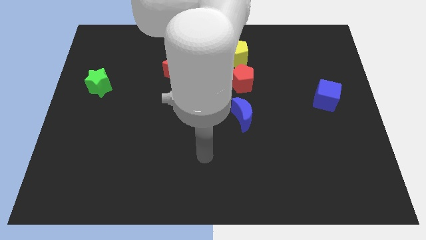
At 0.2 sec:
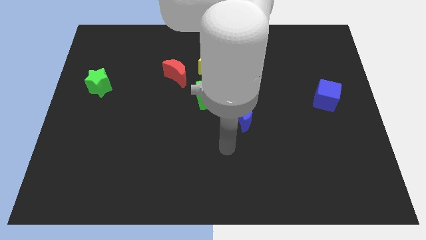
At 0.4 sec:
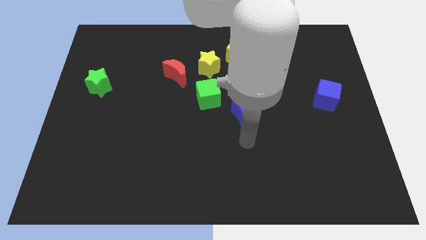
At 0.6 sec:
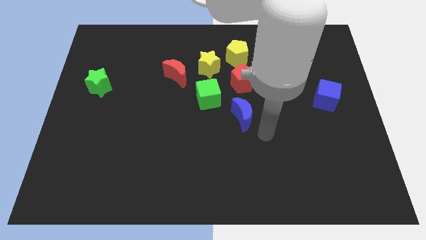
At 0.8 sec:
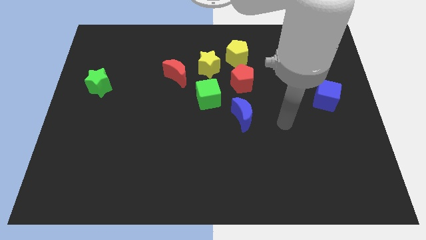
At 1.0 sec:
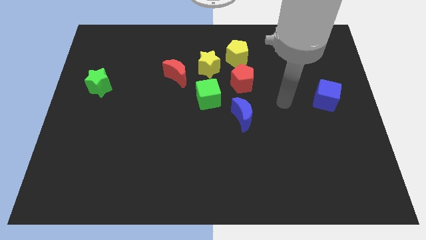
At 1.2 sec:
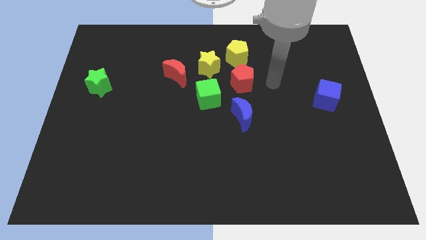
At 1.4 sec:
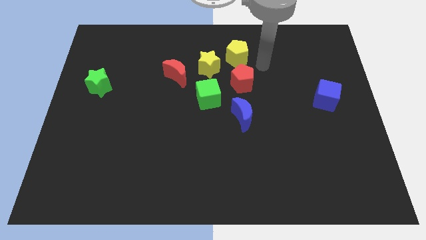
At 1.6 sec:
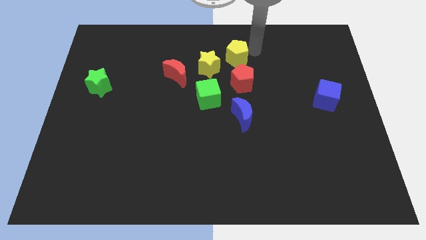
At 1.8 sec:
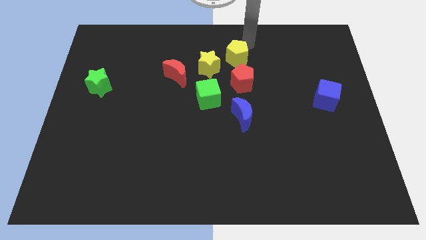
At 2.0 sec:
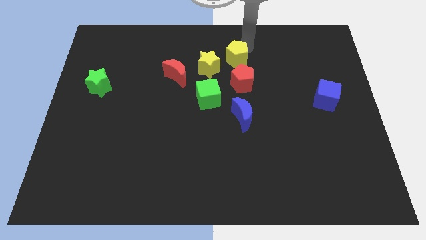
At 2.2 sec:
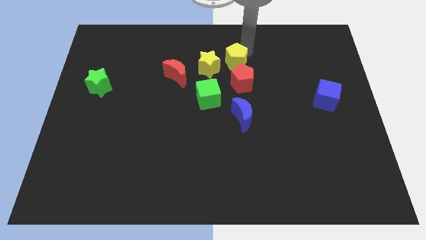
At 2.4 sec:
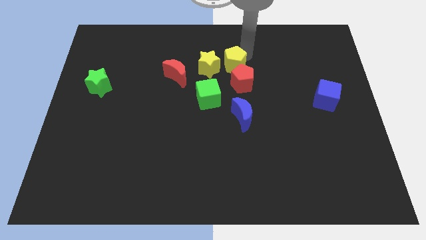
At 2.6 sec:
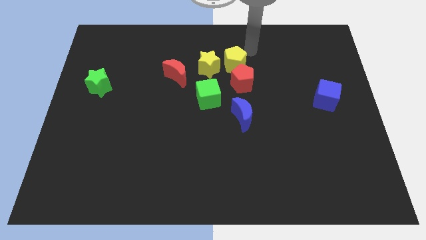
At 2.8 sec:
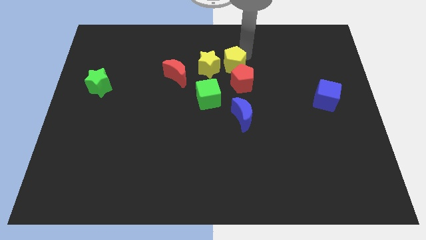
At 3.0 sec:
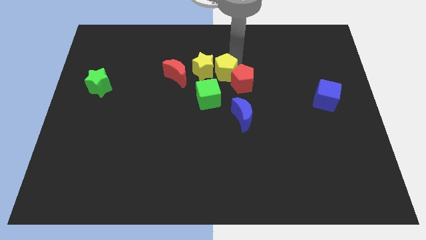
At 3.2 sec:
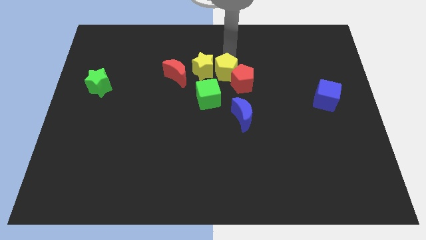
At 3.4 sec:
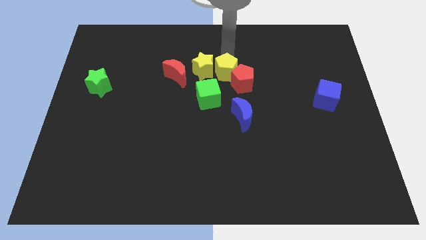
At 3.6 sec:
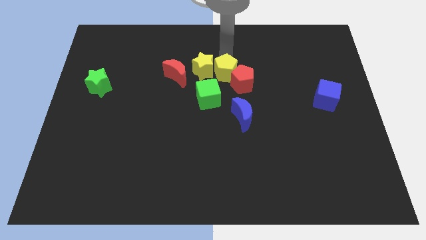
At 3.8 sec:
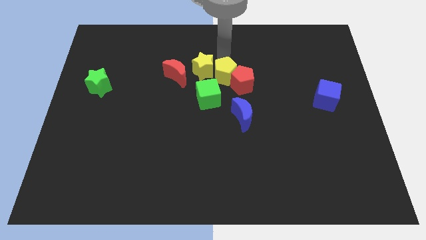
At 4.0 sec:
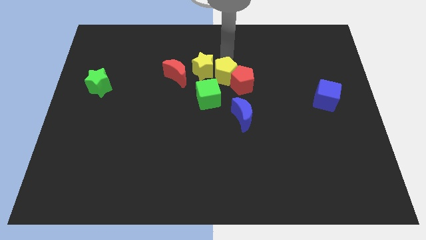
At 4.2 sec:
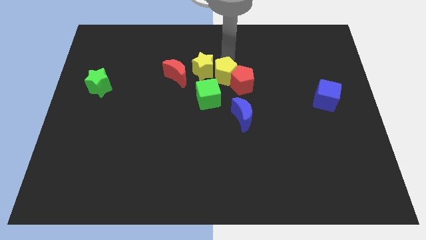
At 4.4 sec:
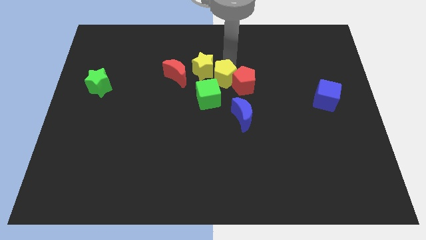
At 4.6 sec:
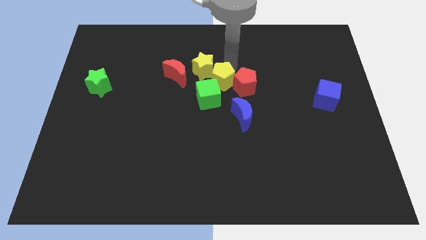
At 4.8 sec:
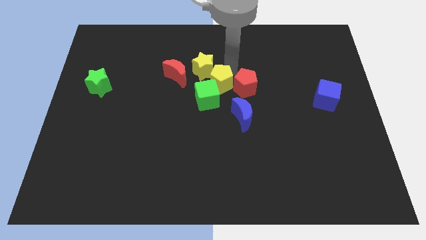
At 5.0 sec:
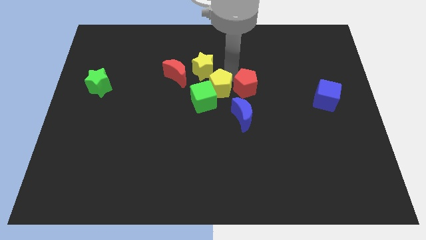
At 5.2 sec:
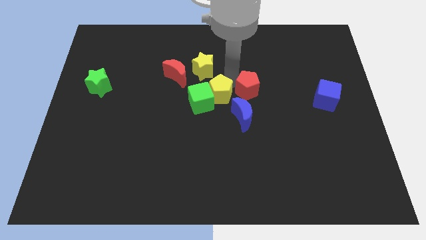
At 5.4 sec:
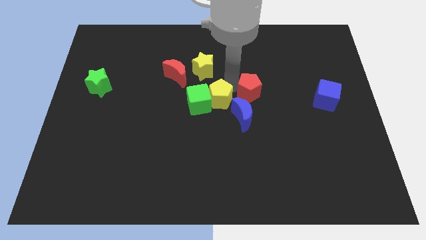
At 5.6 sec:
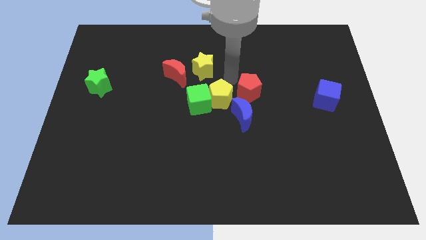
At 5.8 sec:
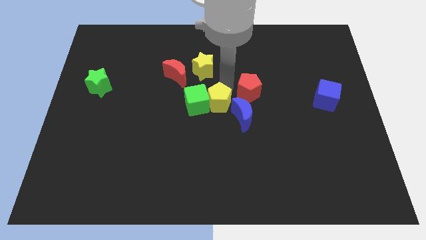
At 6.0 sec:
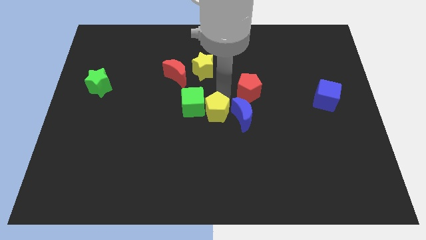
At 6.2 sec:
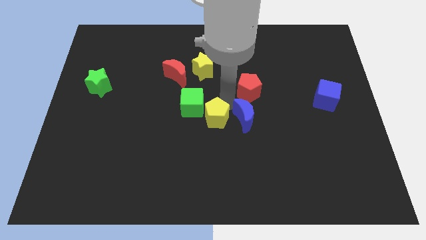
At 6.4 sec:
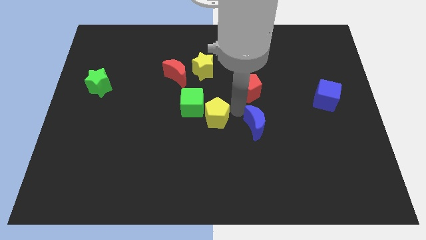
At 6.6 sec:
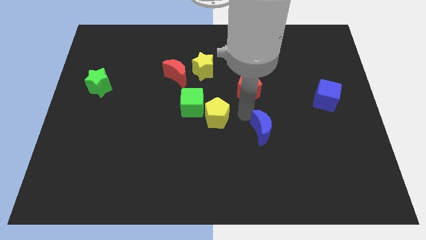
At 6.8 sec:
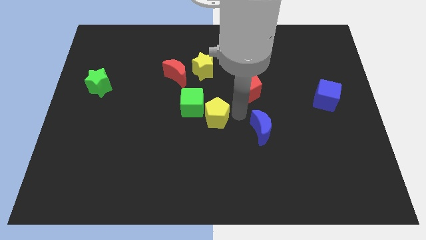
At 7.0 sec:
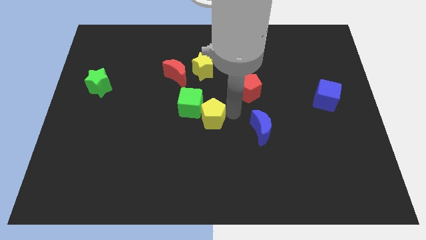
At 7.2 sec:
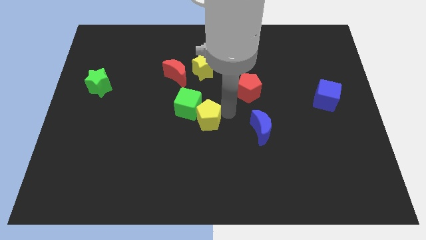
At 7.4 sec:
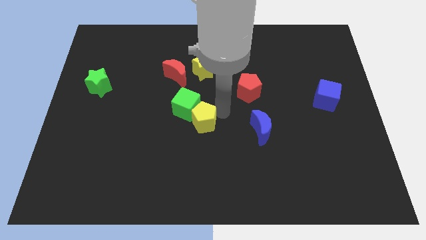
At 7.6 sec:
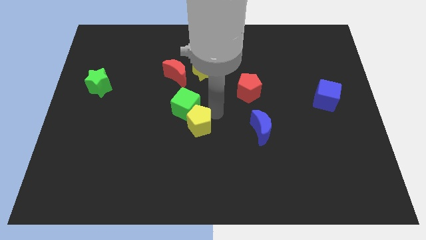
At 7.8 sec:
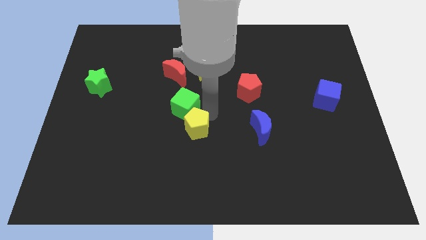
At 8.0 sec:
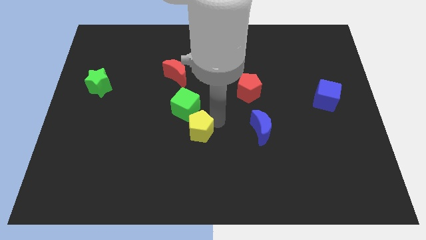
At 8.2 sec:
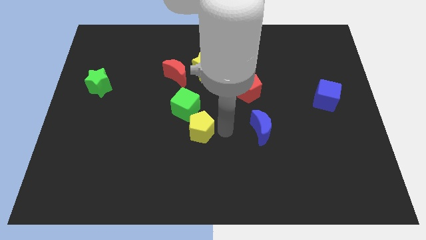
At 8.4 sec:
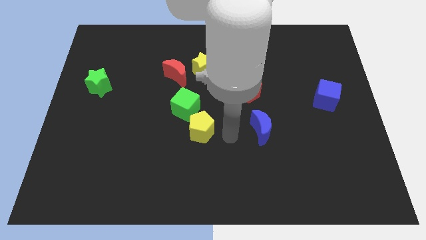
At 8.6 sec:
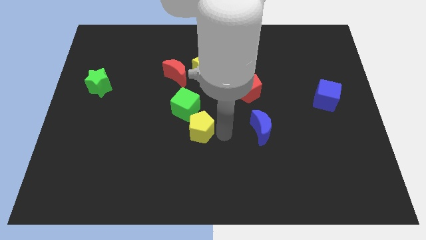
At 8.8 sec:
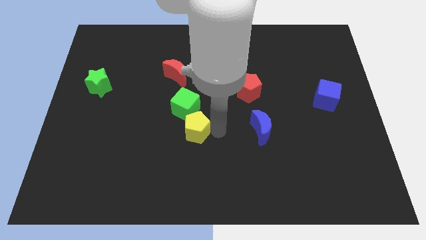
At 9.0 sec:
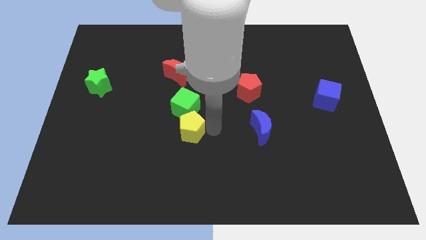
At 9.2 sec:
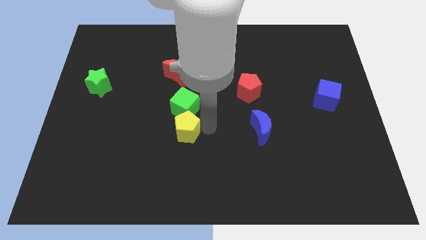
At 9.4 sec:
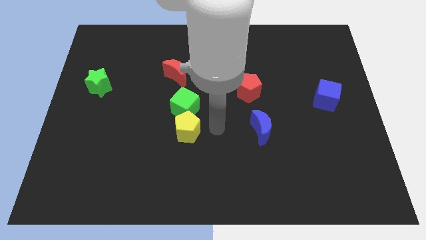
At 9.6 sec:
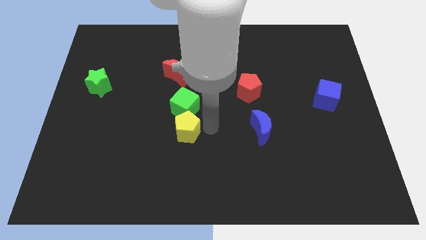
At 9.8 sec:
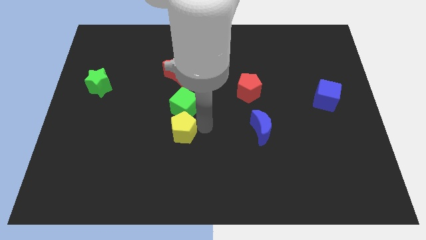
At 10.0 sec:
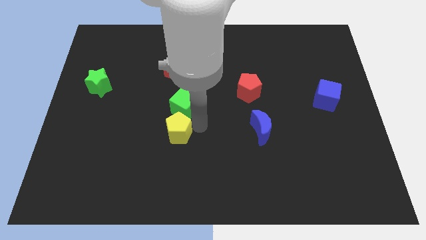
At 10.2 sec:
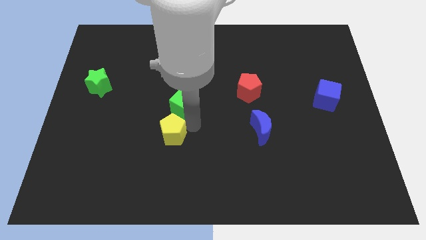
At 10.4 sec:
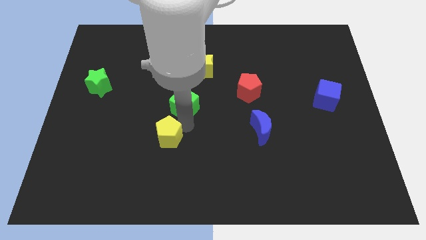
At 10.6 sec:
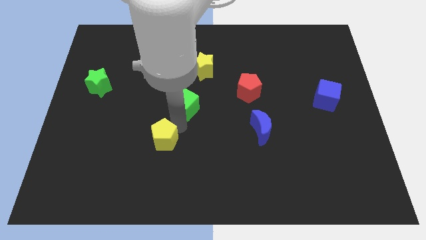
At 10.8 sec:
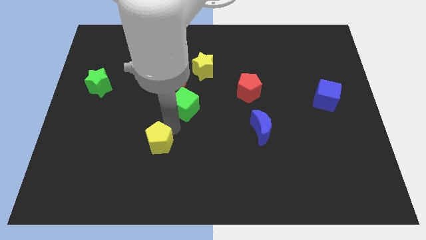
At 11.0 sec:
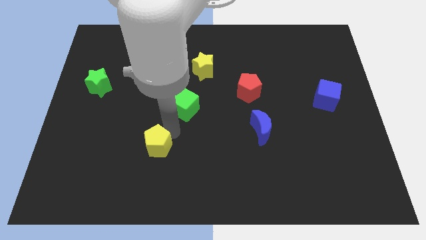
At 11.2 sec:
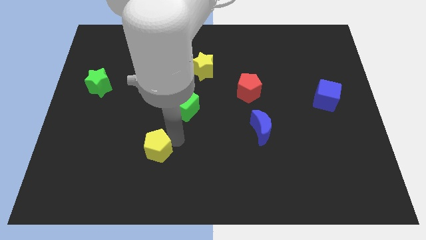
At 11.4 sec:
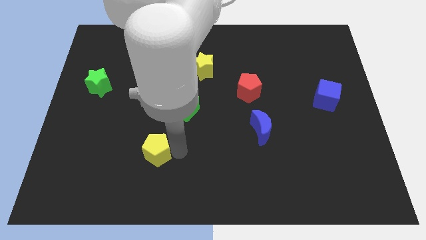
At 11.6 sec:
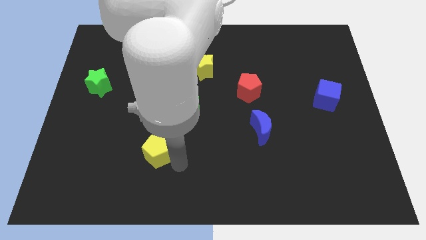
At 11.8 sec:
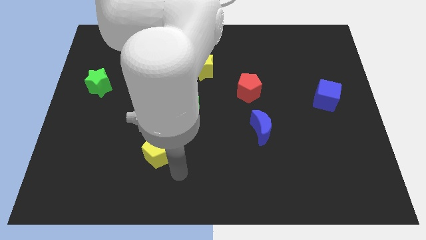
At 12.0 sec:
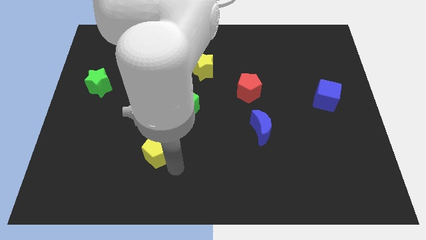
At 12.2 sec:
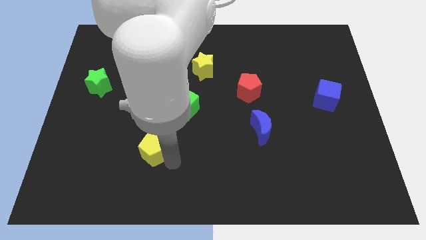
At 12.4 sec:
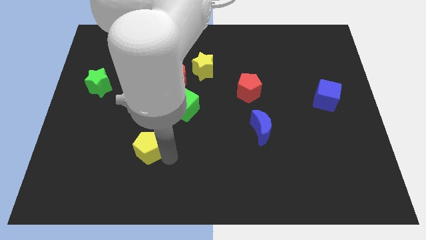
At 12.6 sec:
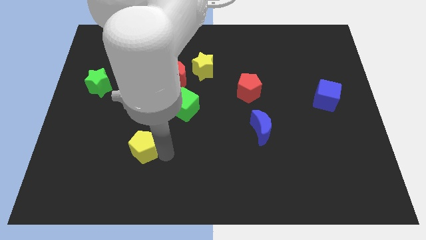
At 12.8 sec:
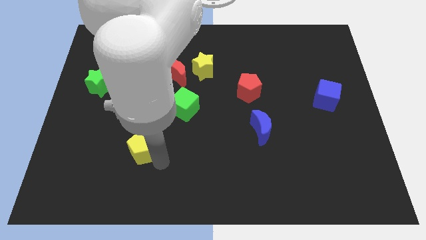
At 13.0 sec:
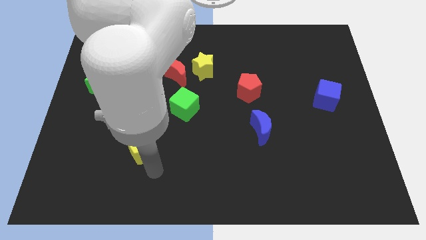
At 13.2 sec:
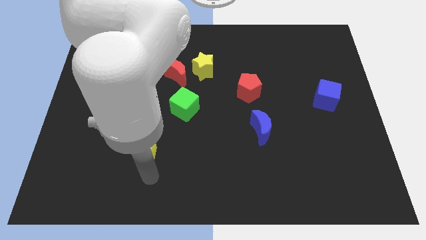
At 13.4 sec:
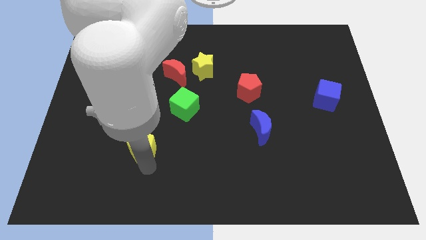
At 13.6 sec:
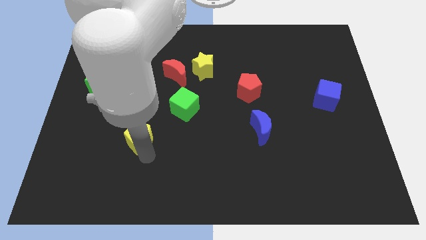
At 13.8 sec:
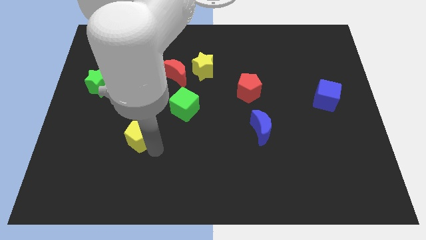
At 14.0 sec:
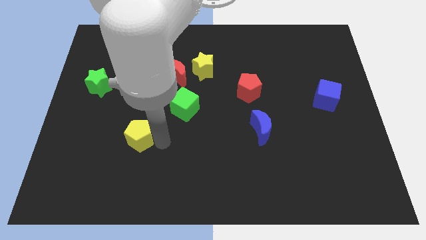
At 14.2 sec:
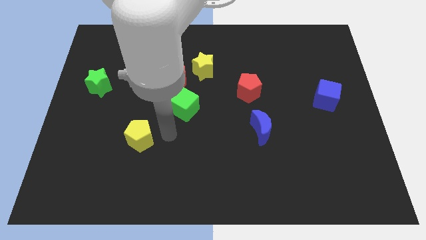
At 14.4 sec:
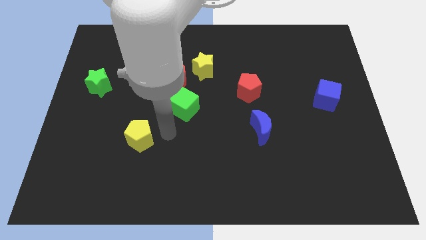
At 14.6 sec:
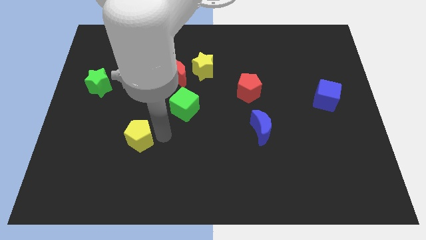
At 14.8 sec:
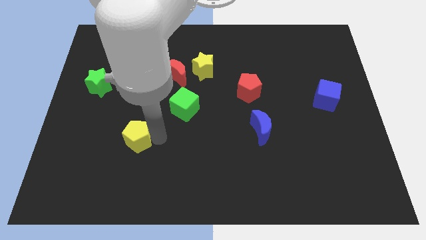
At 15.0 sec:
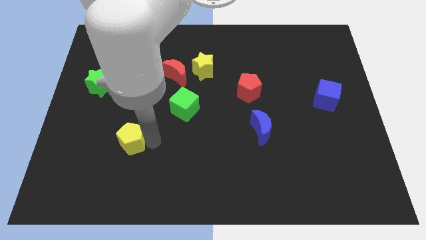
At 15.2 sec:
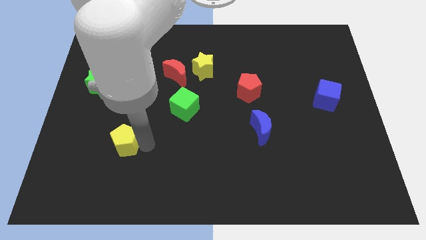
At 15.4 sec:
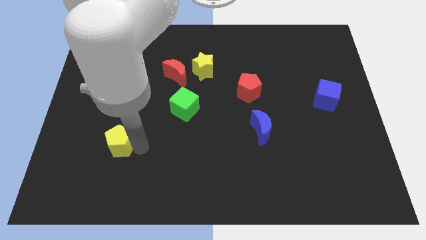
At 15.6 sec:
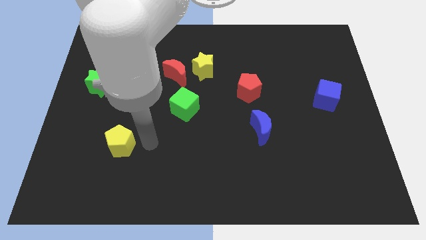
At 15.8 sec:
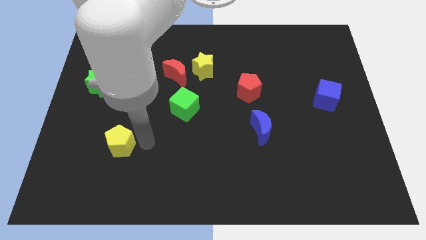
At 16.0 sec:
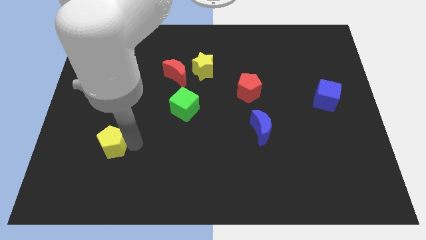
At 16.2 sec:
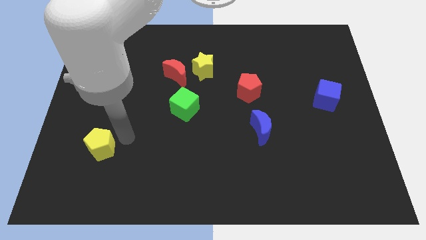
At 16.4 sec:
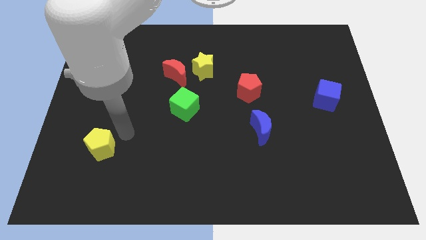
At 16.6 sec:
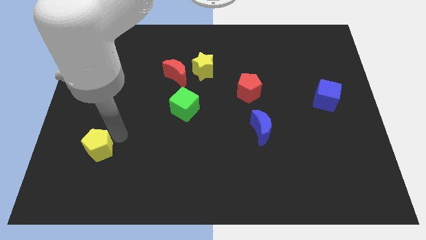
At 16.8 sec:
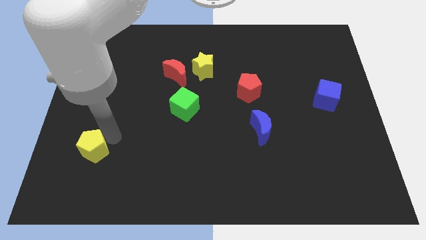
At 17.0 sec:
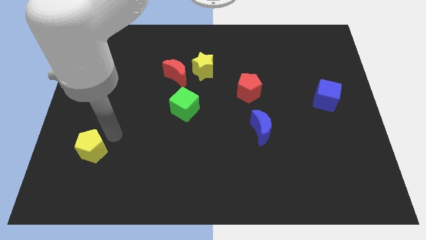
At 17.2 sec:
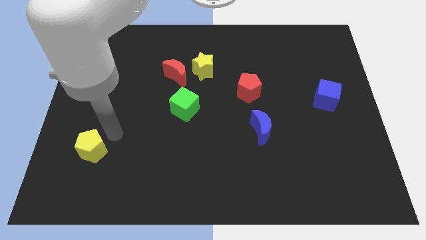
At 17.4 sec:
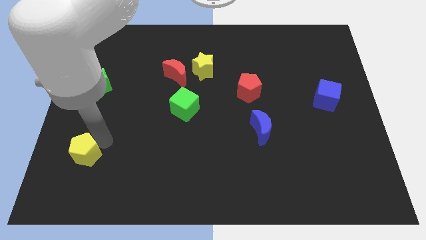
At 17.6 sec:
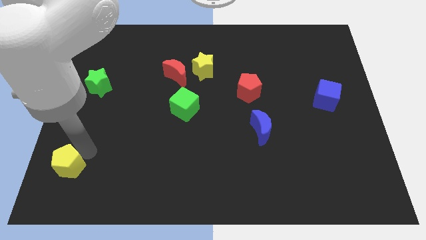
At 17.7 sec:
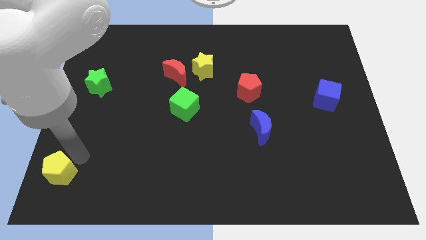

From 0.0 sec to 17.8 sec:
push the yellow pentagon to the lower left corner
